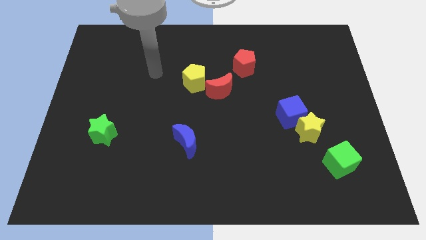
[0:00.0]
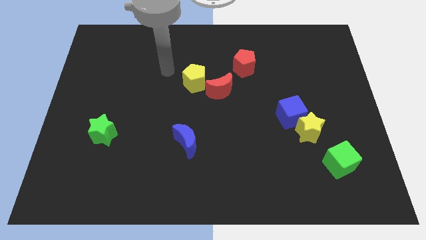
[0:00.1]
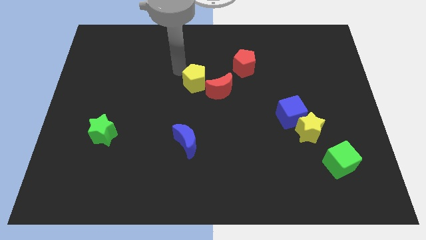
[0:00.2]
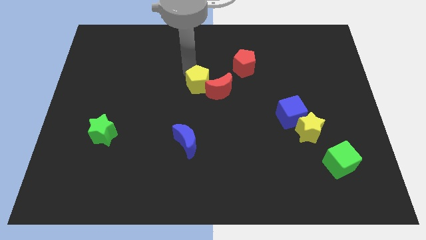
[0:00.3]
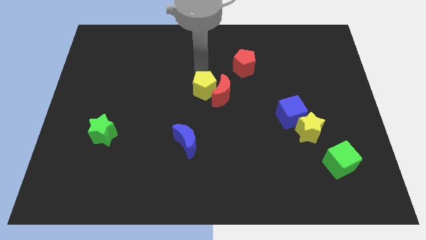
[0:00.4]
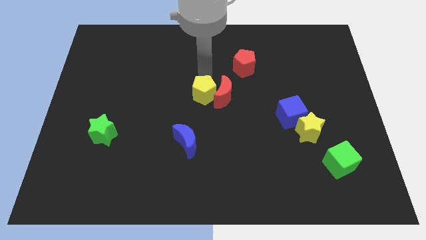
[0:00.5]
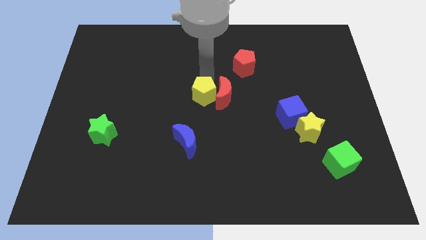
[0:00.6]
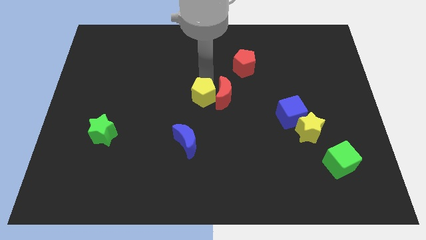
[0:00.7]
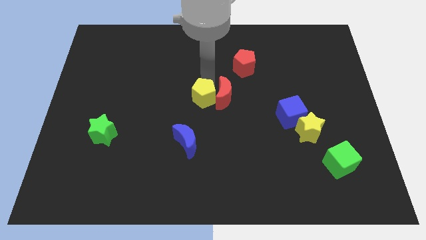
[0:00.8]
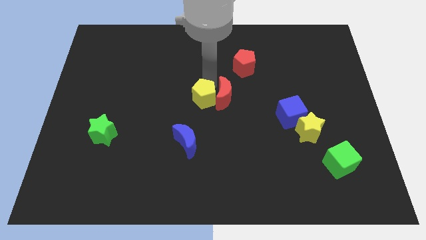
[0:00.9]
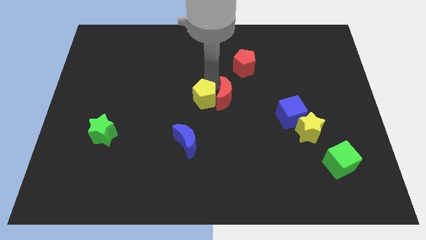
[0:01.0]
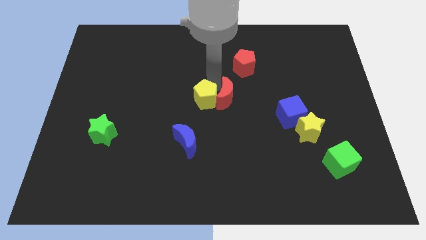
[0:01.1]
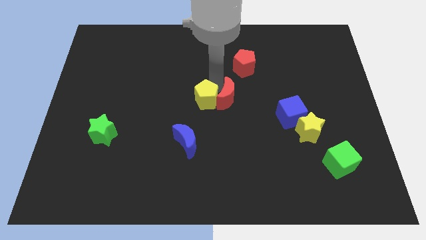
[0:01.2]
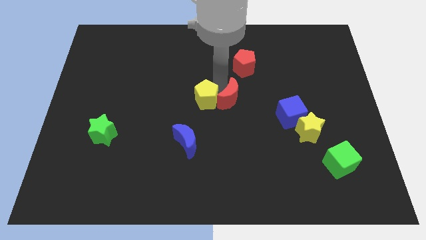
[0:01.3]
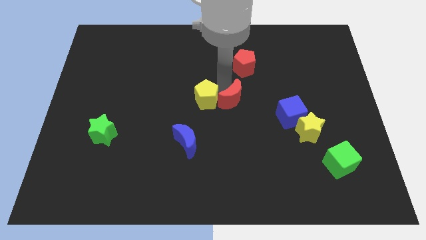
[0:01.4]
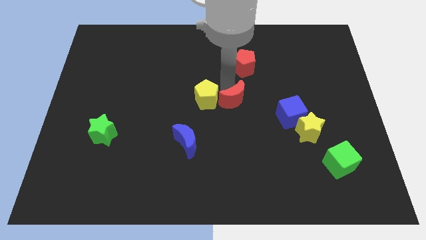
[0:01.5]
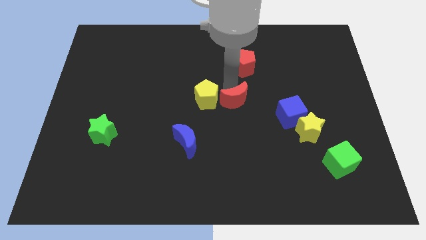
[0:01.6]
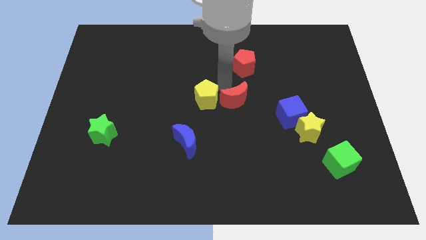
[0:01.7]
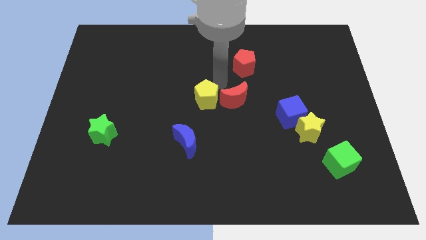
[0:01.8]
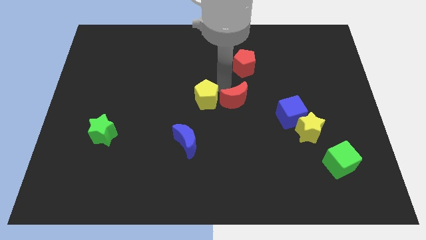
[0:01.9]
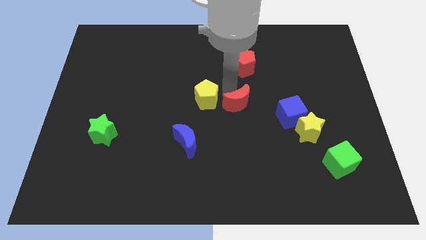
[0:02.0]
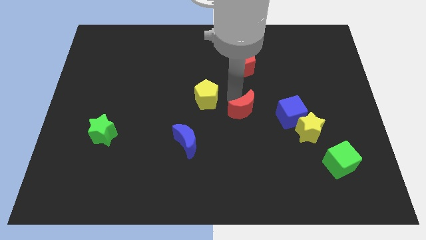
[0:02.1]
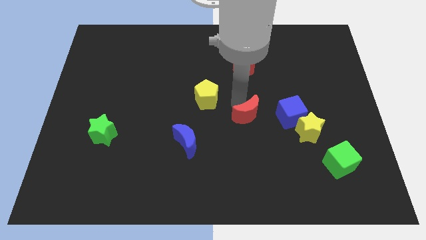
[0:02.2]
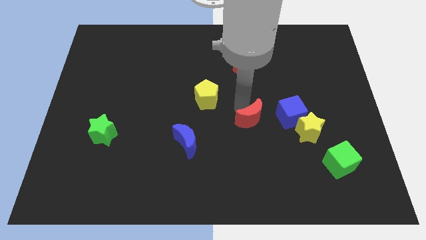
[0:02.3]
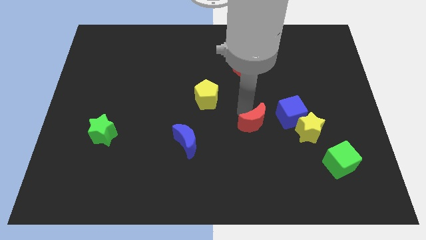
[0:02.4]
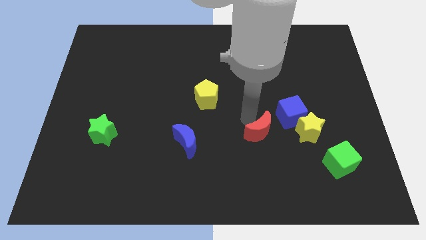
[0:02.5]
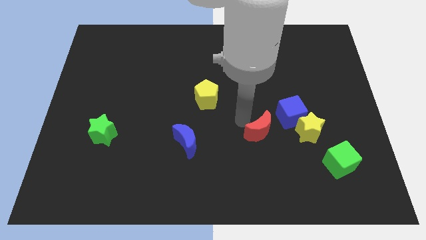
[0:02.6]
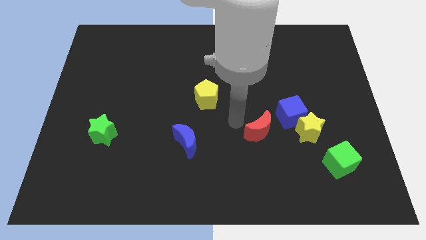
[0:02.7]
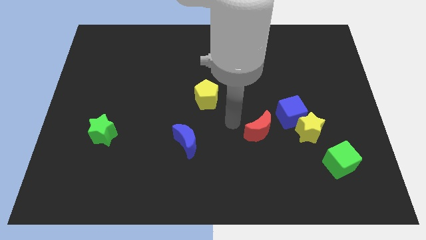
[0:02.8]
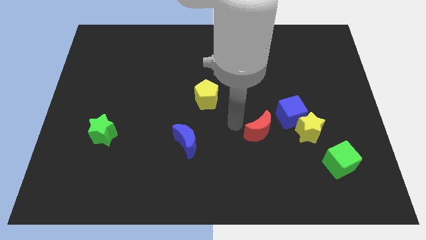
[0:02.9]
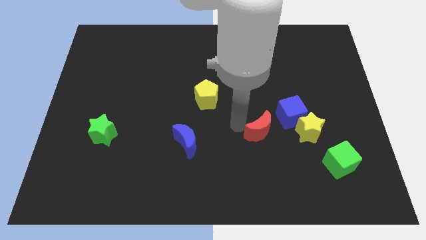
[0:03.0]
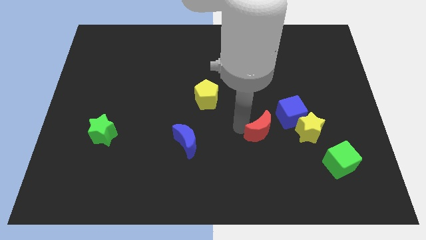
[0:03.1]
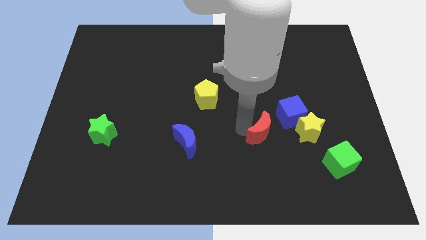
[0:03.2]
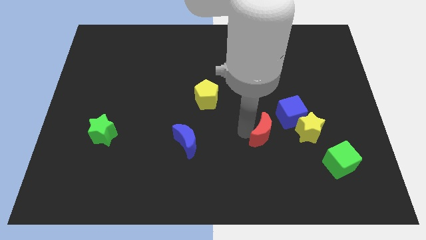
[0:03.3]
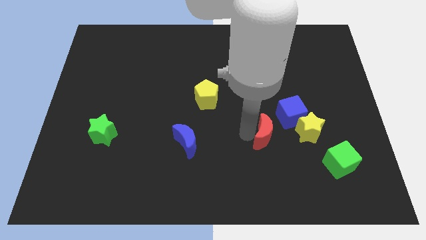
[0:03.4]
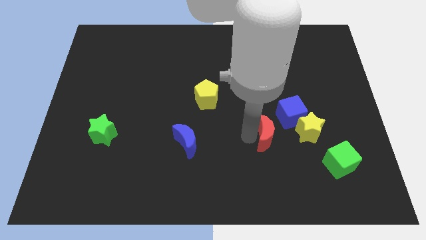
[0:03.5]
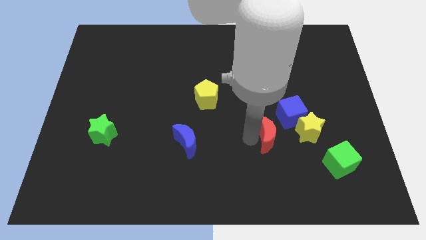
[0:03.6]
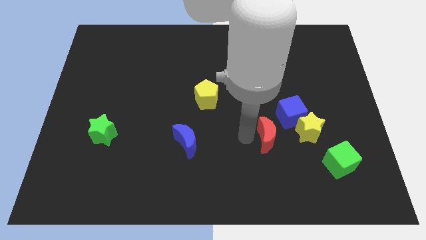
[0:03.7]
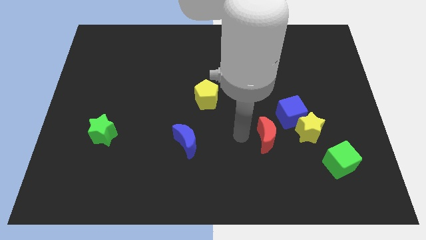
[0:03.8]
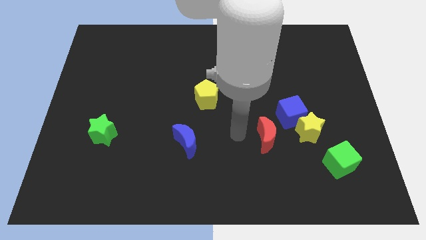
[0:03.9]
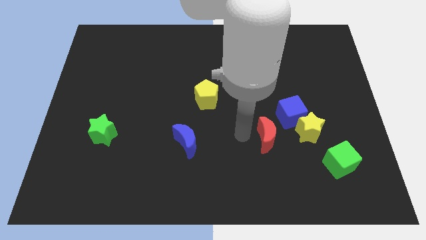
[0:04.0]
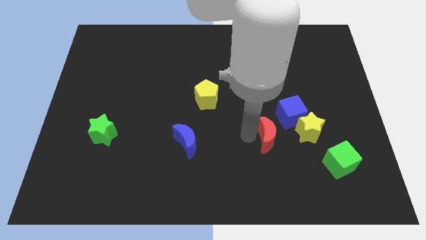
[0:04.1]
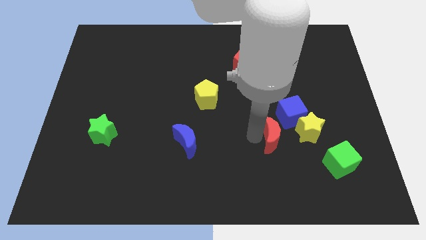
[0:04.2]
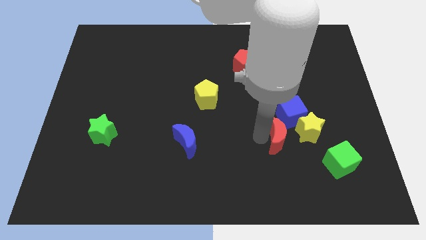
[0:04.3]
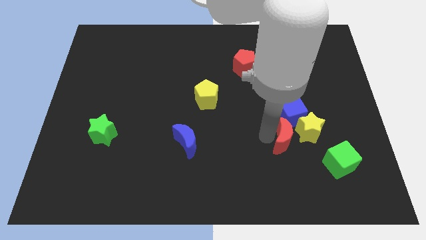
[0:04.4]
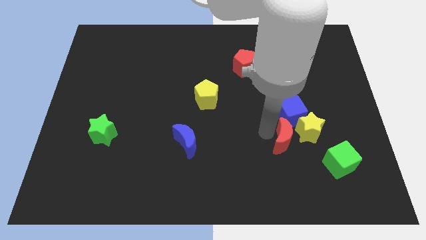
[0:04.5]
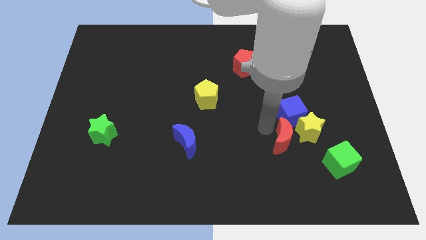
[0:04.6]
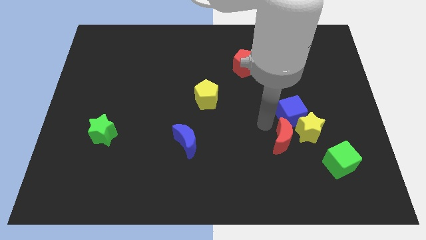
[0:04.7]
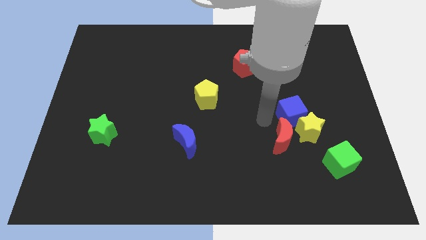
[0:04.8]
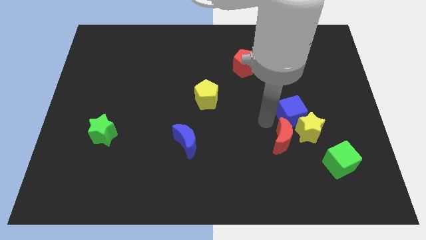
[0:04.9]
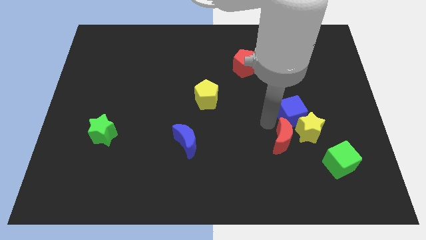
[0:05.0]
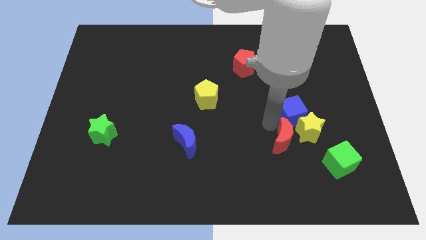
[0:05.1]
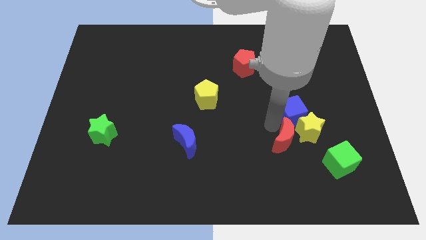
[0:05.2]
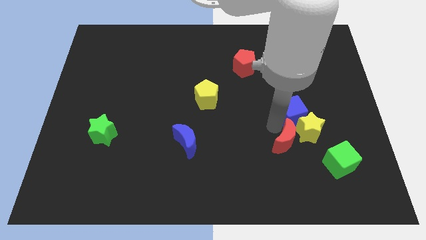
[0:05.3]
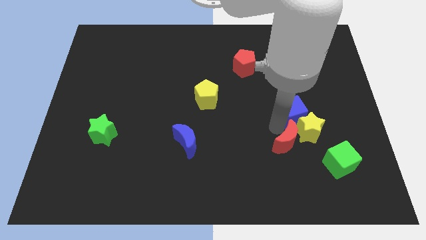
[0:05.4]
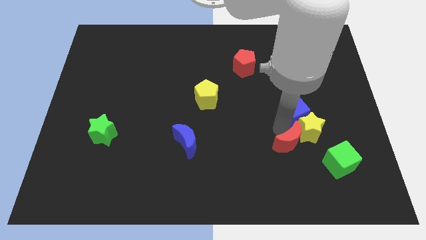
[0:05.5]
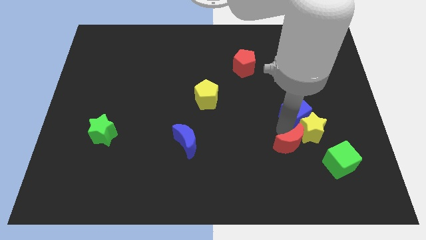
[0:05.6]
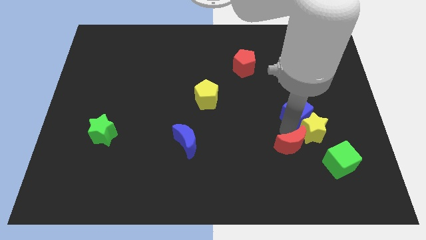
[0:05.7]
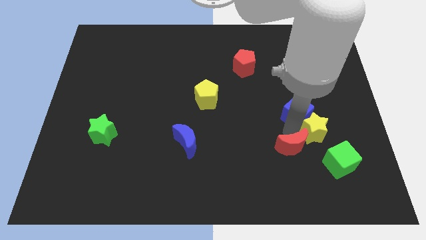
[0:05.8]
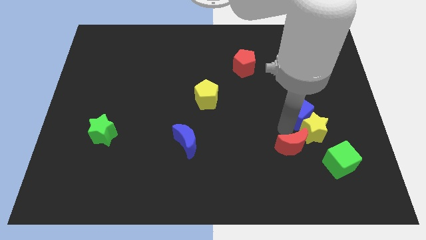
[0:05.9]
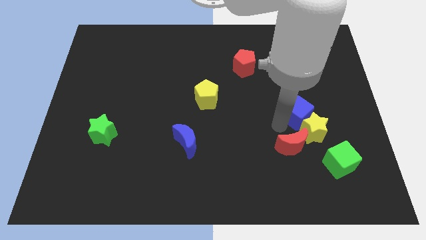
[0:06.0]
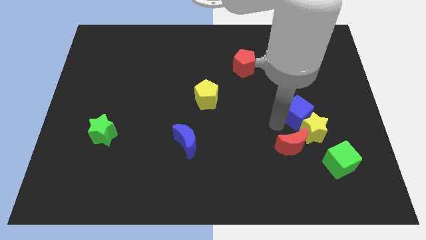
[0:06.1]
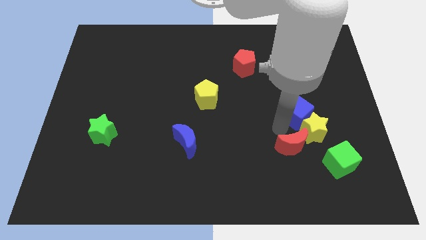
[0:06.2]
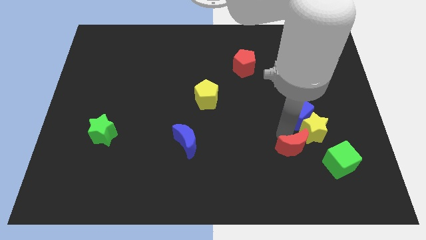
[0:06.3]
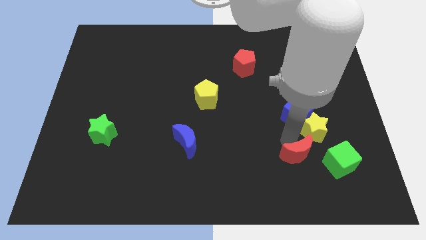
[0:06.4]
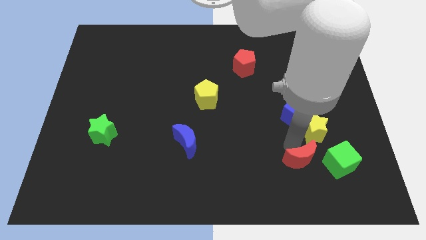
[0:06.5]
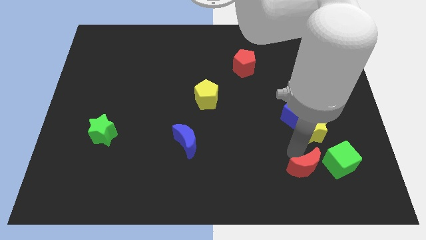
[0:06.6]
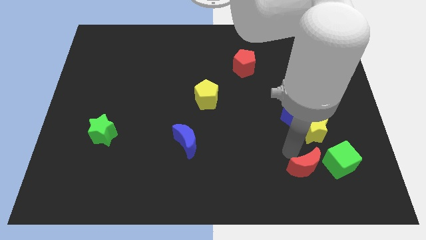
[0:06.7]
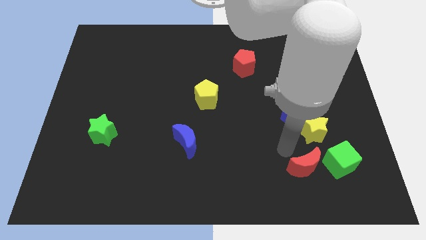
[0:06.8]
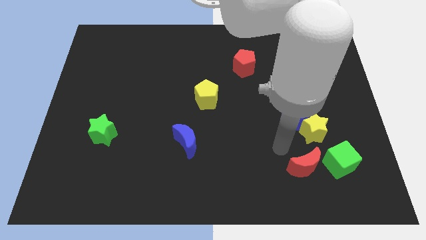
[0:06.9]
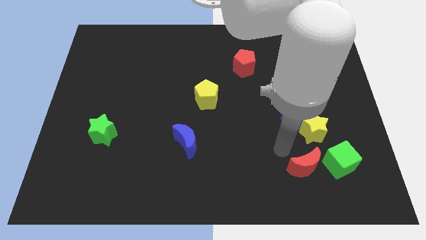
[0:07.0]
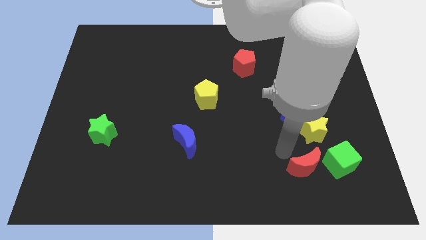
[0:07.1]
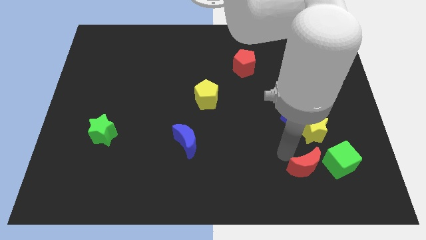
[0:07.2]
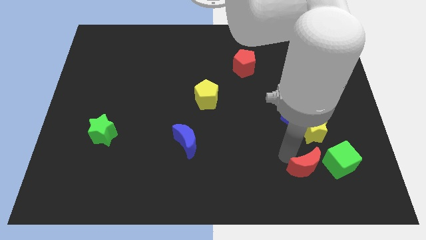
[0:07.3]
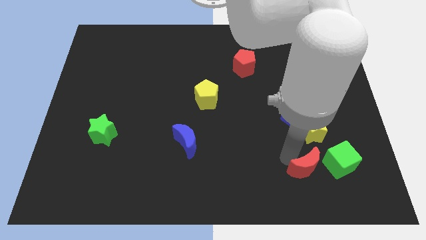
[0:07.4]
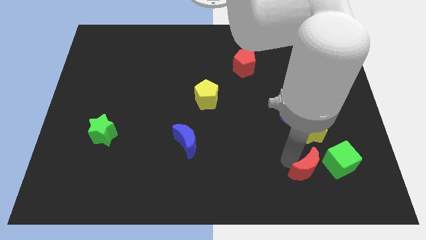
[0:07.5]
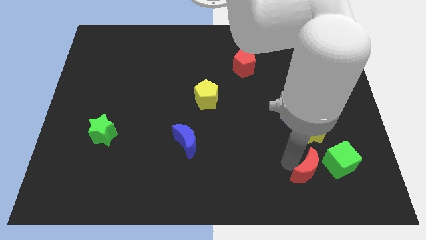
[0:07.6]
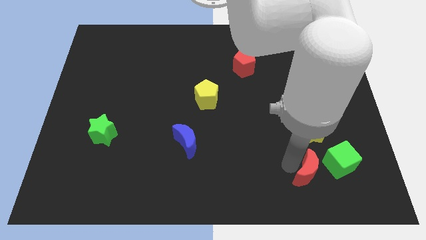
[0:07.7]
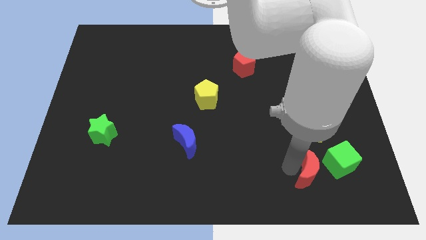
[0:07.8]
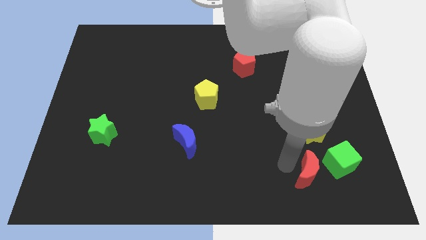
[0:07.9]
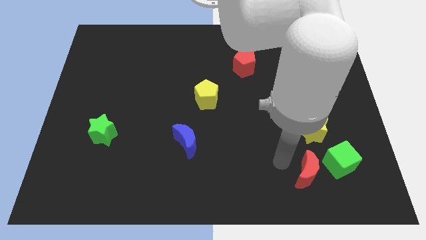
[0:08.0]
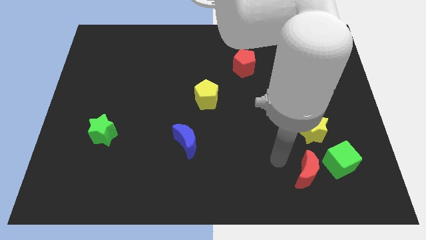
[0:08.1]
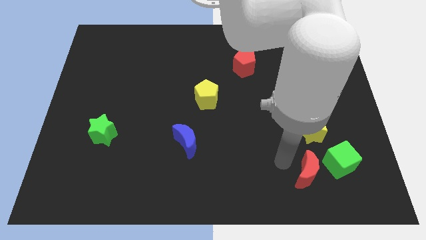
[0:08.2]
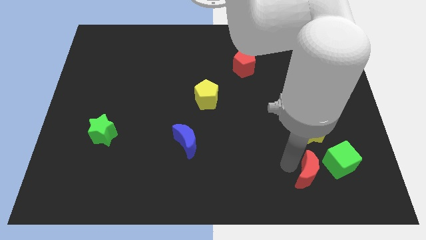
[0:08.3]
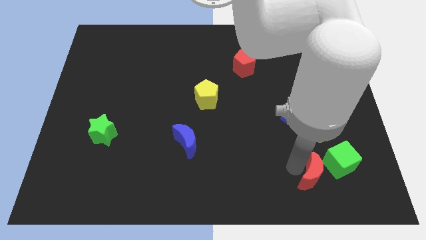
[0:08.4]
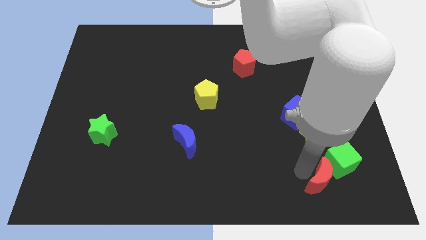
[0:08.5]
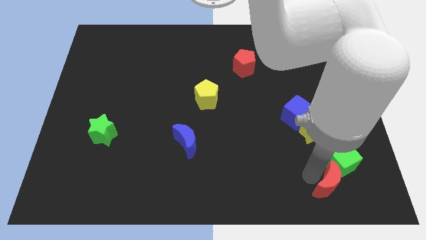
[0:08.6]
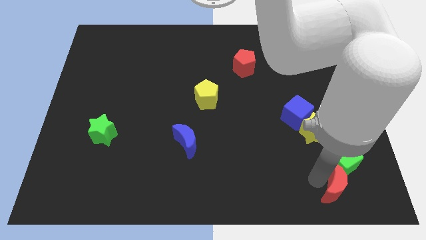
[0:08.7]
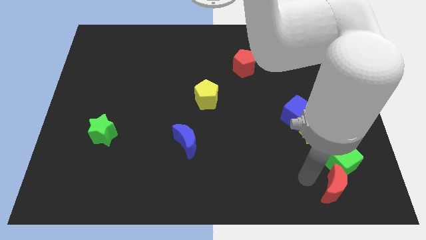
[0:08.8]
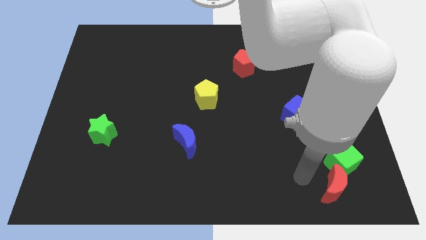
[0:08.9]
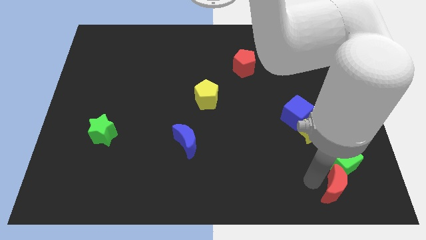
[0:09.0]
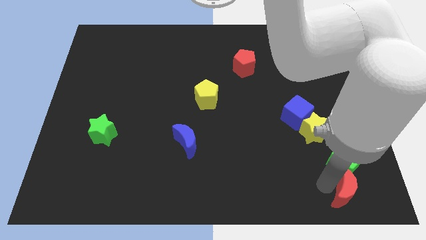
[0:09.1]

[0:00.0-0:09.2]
slide the red moon to the bottom right of the board
